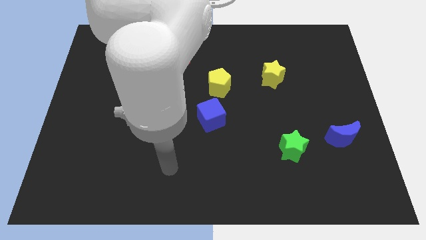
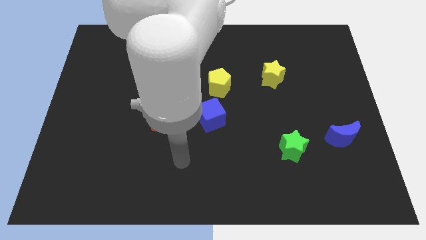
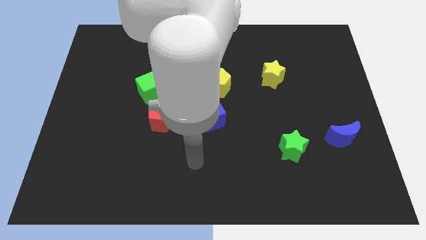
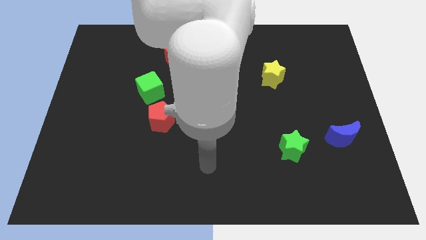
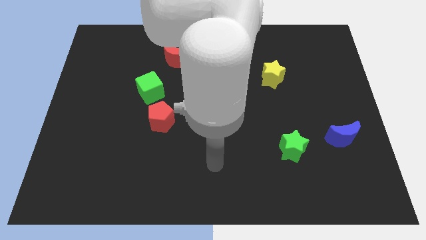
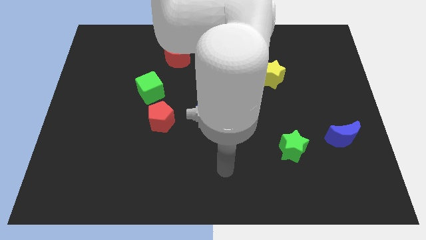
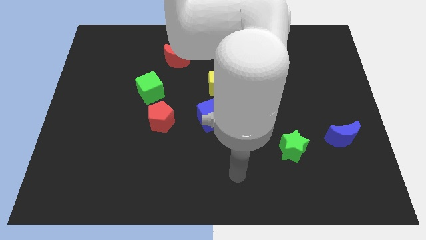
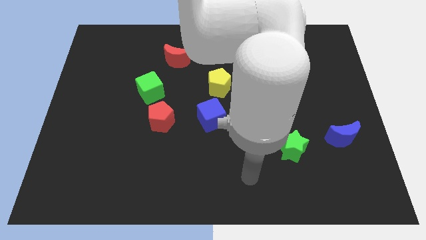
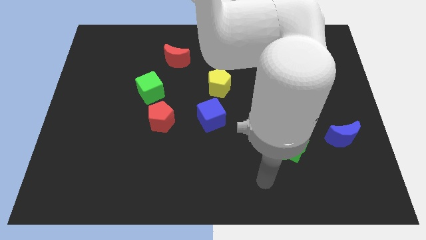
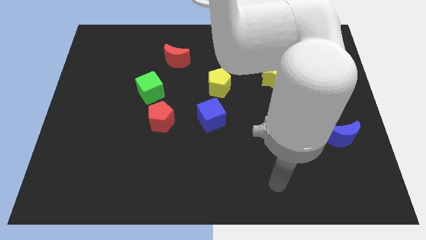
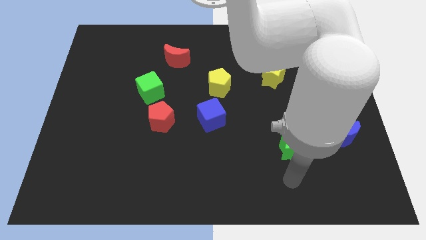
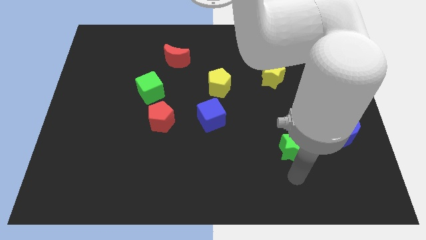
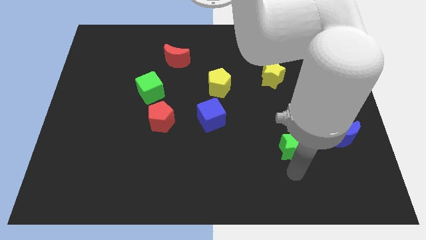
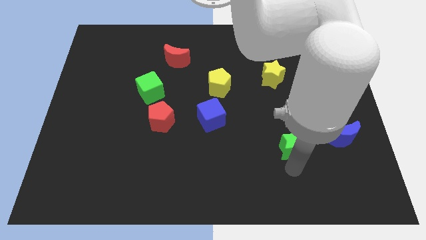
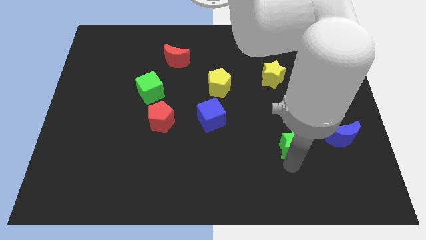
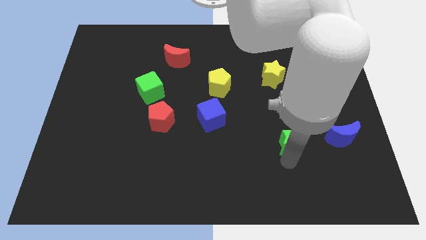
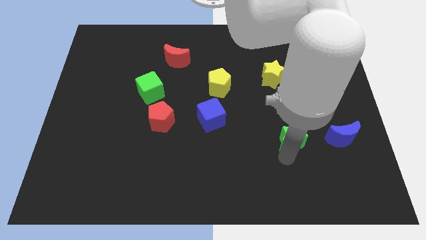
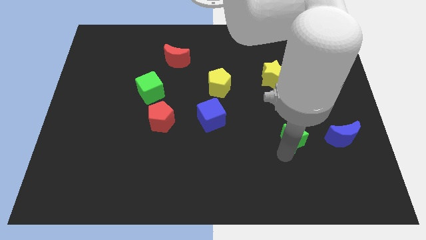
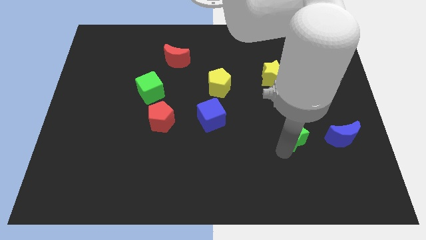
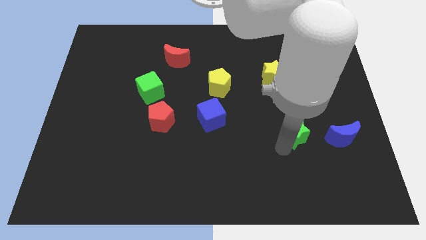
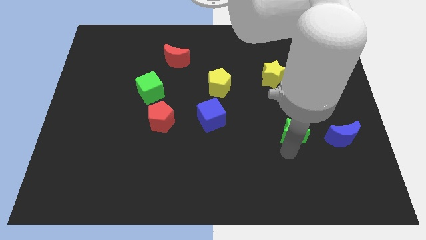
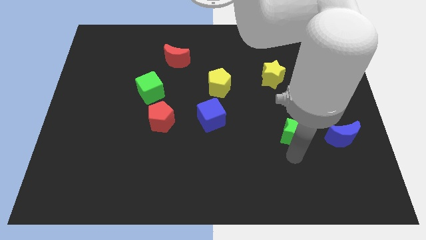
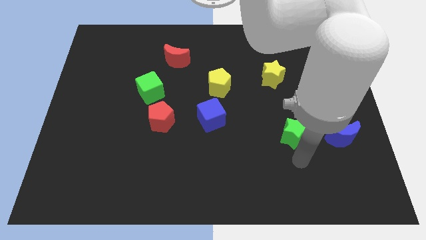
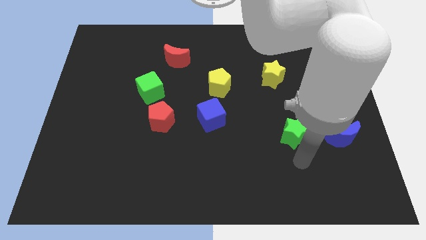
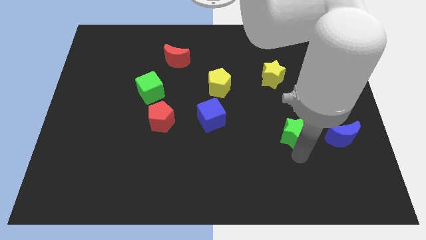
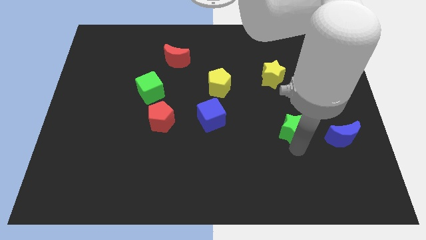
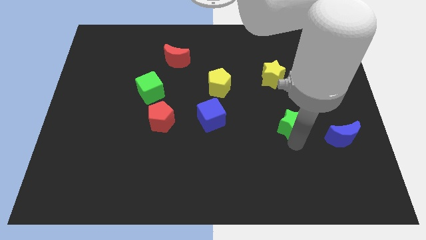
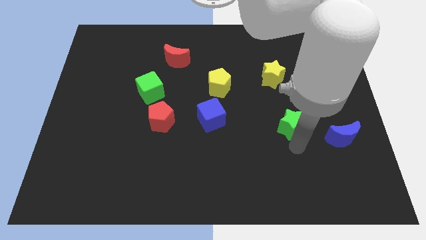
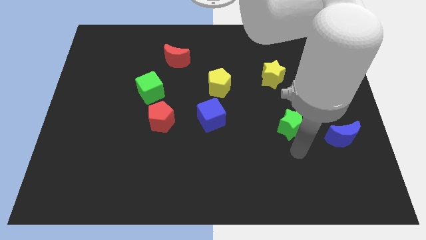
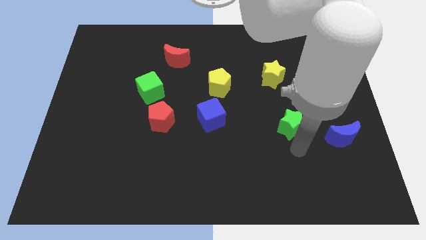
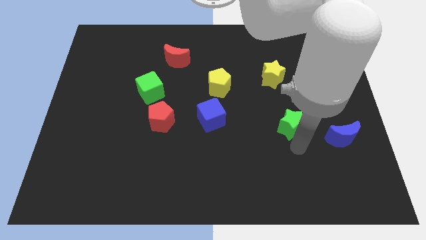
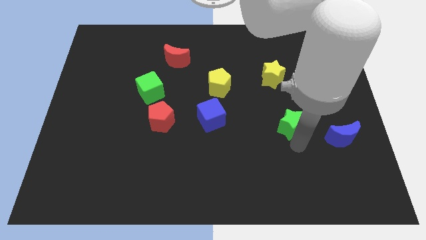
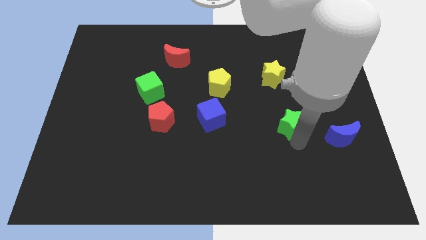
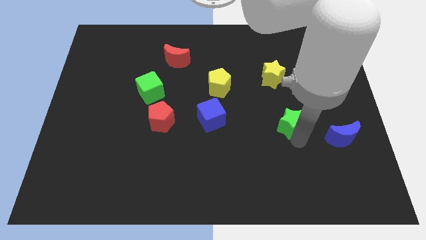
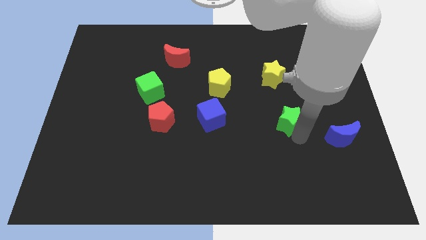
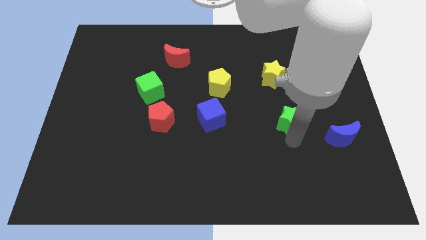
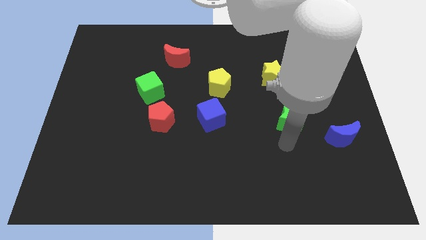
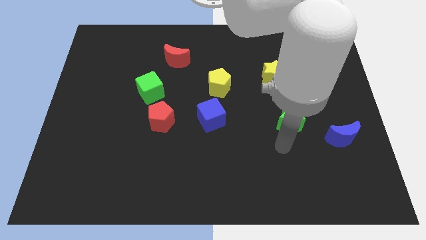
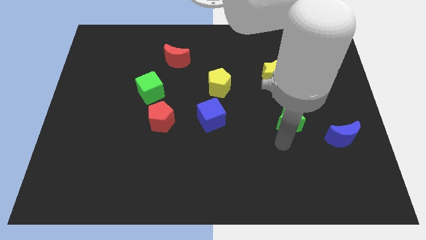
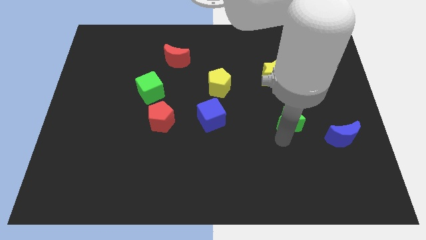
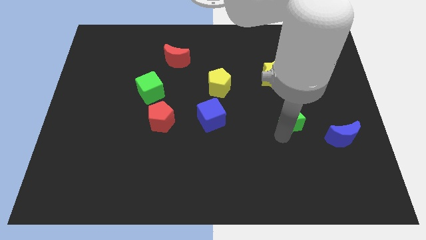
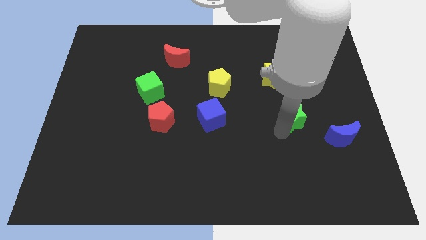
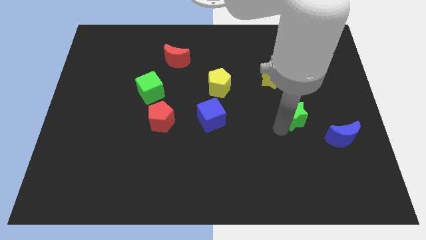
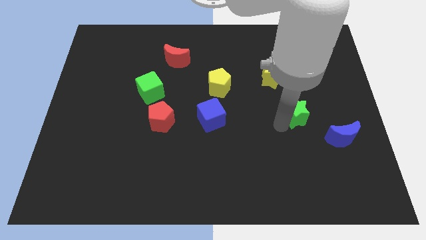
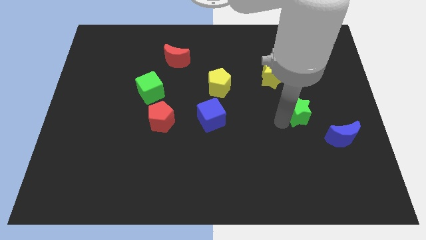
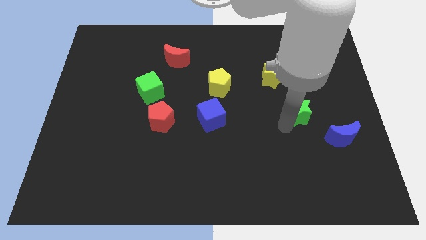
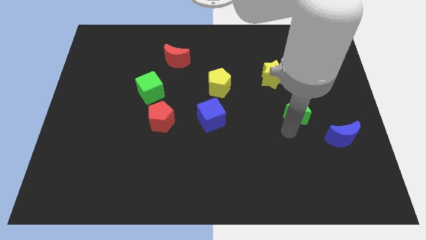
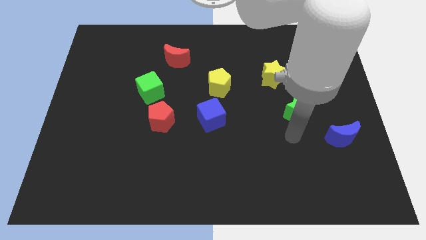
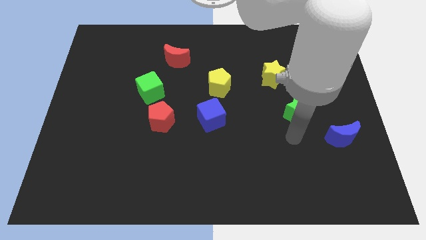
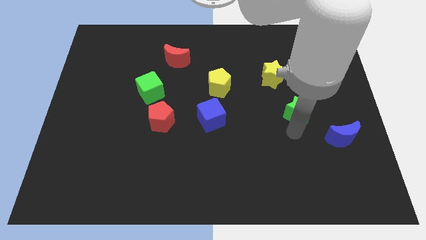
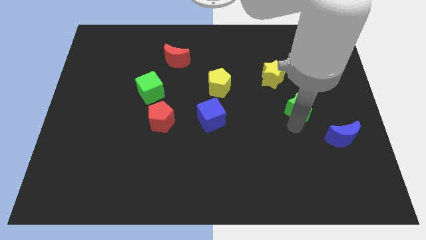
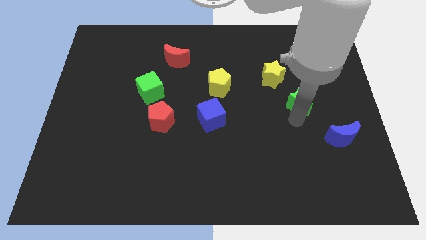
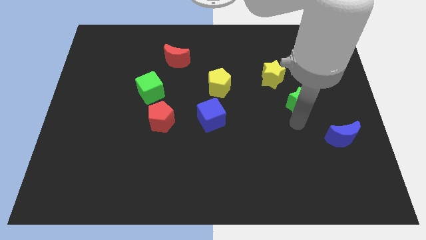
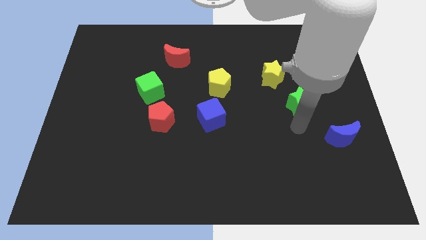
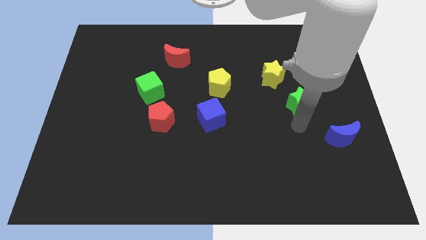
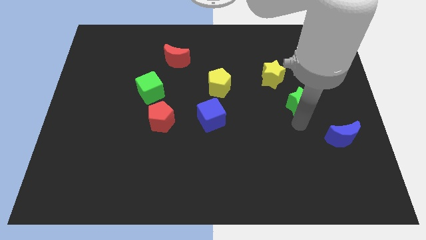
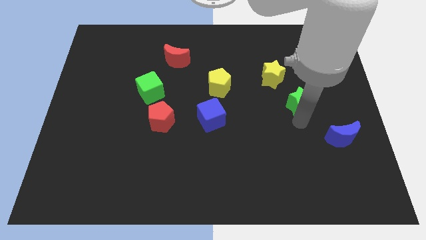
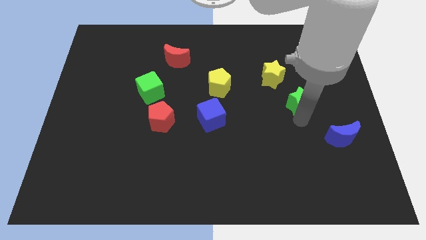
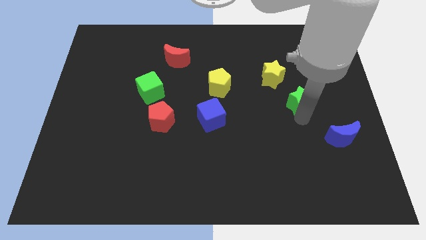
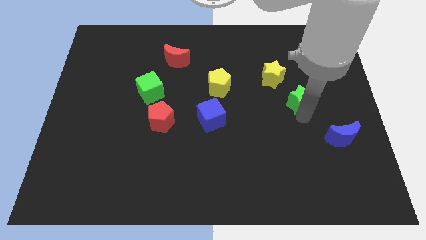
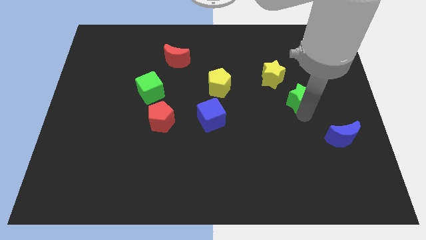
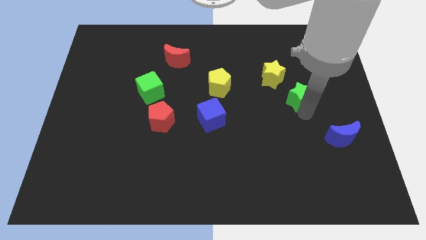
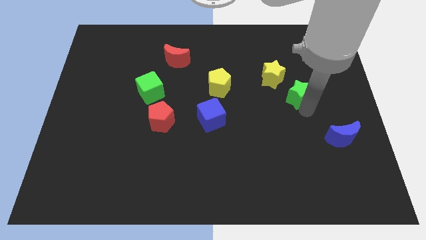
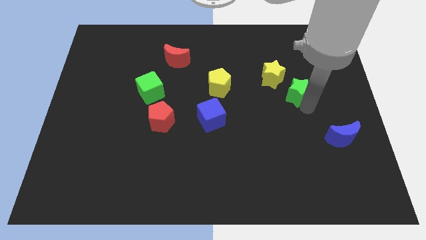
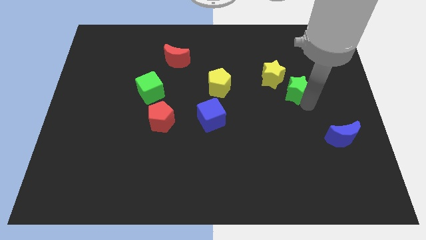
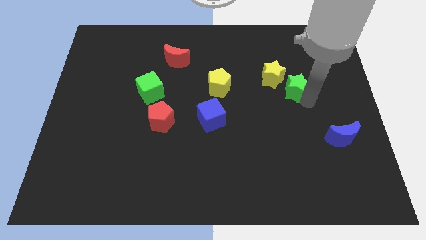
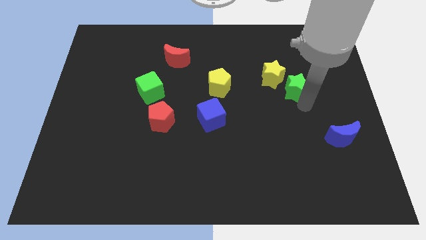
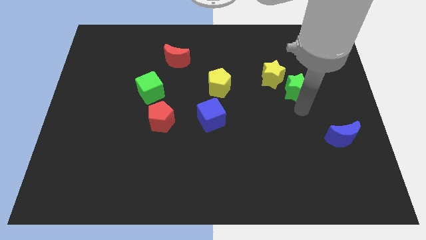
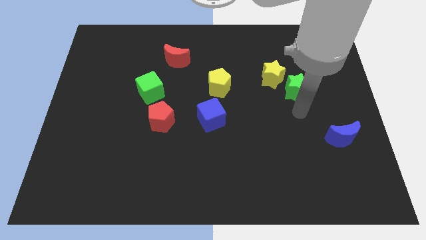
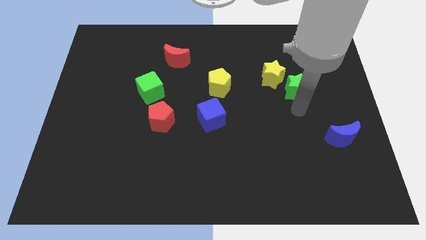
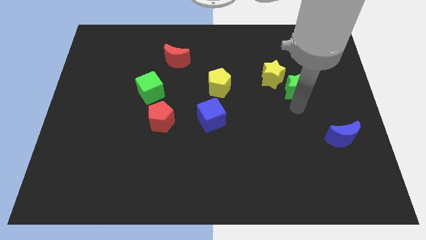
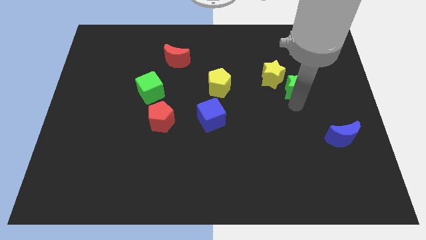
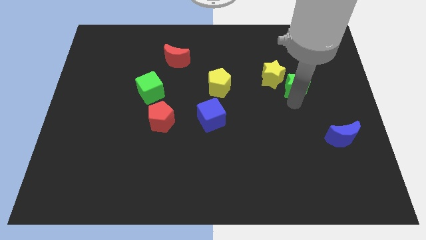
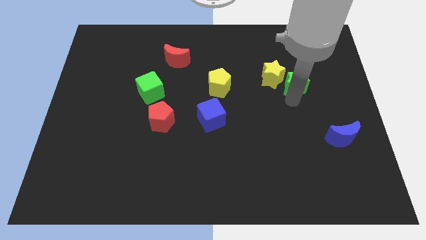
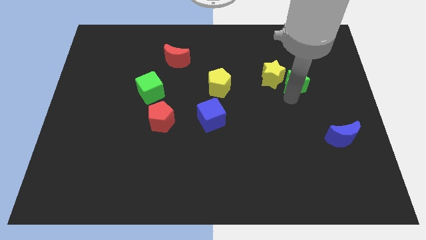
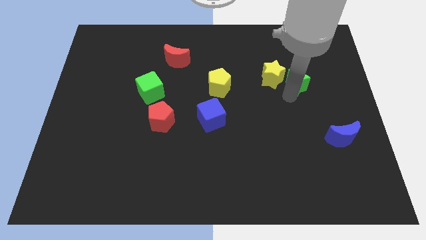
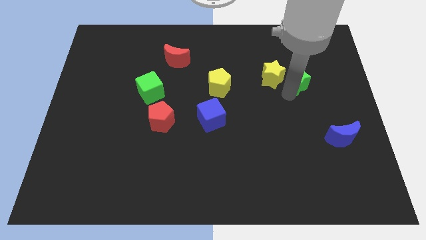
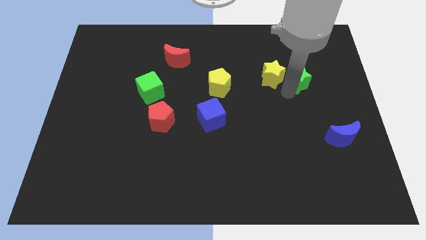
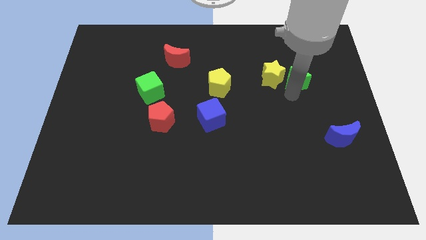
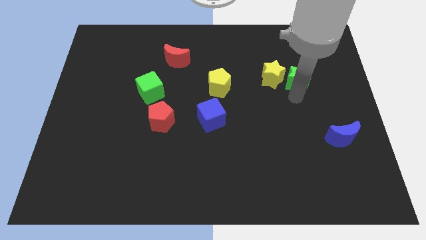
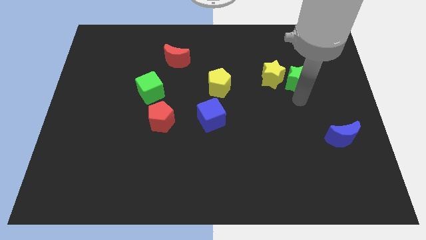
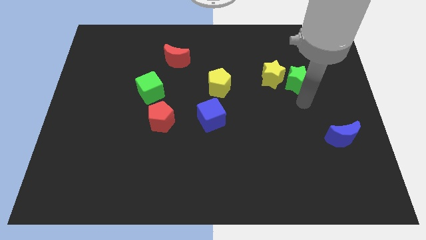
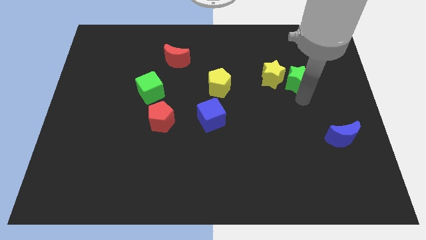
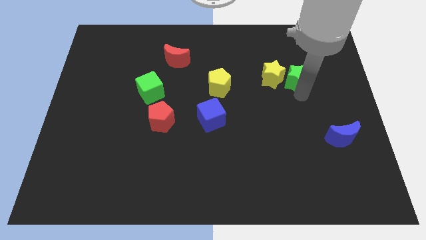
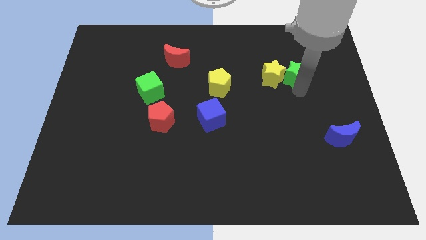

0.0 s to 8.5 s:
put the green star to the top right of the yellow star
